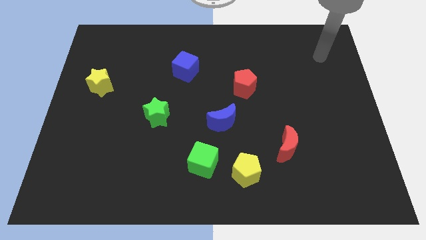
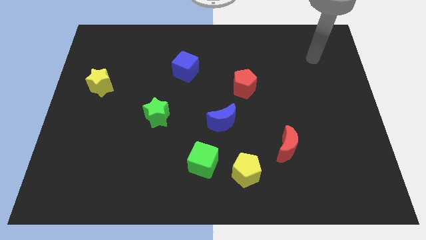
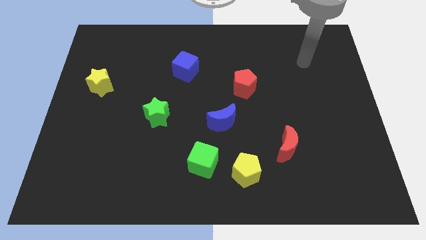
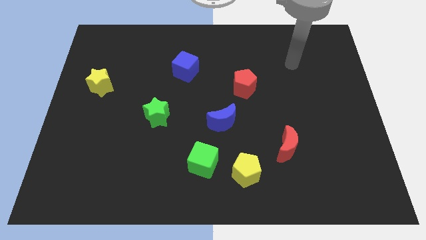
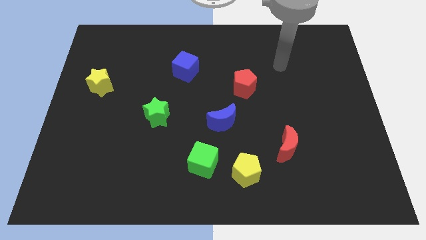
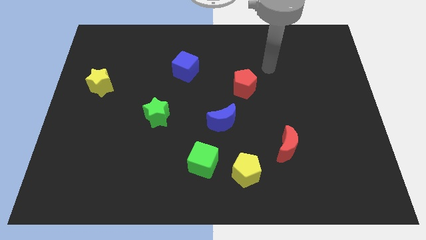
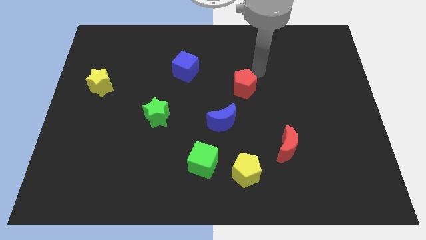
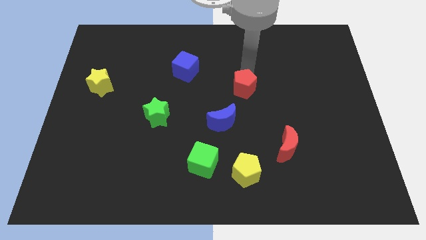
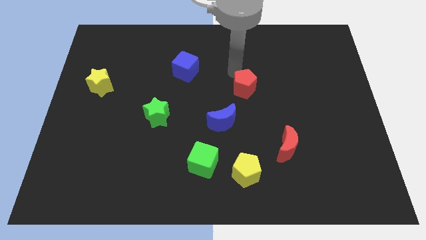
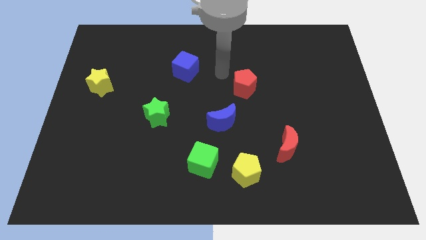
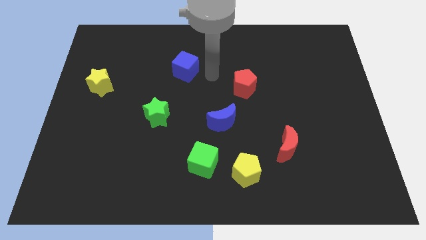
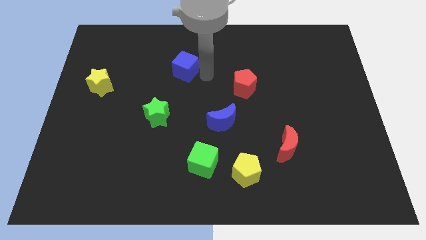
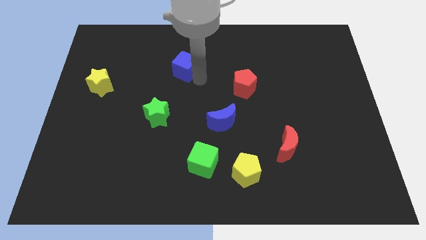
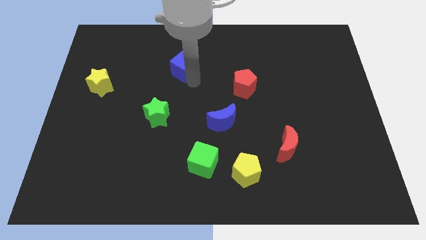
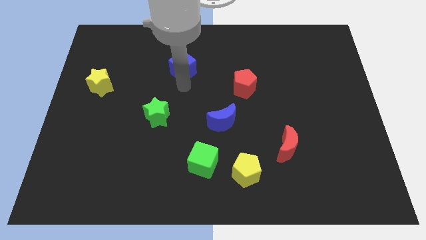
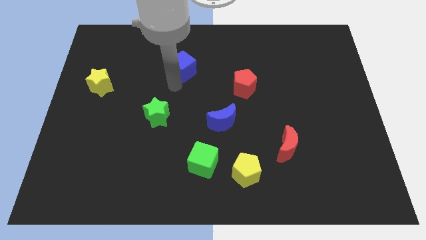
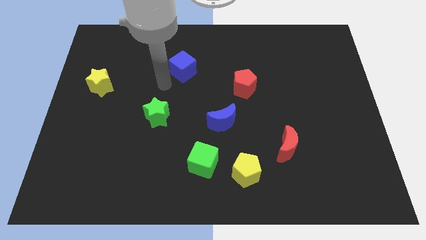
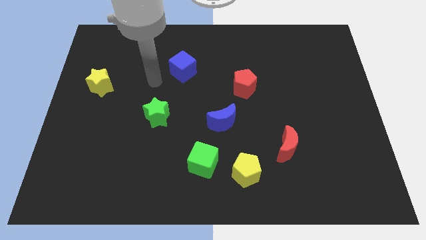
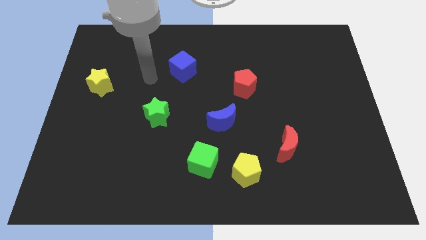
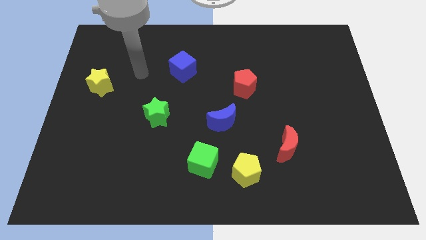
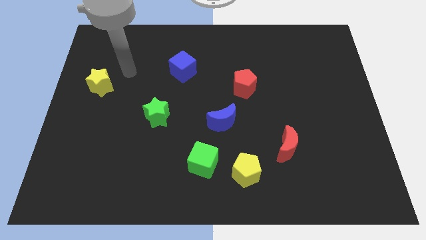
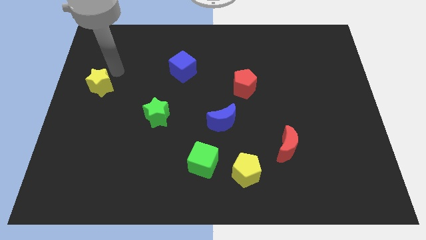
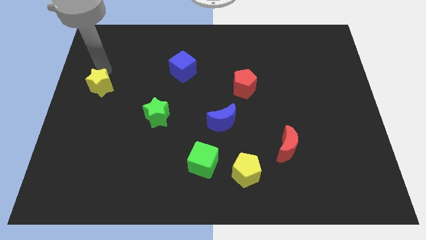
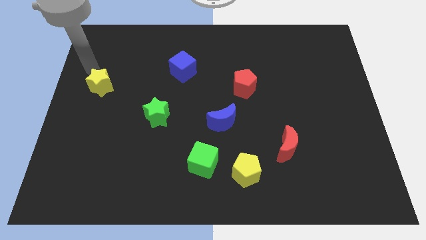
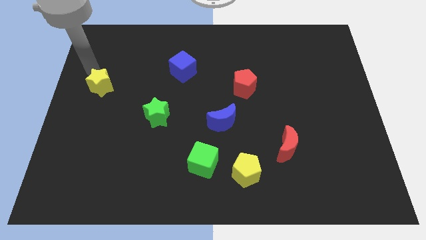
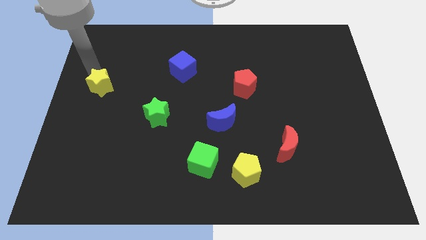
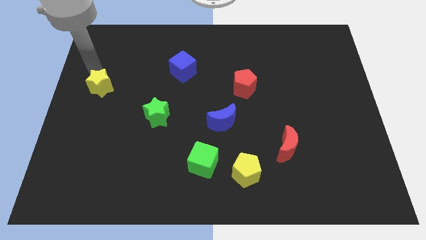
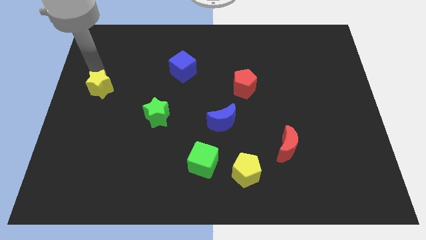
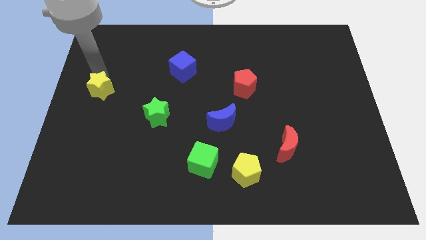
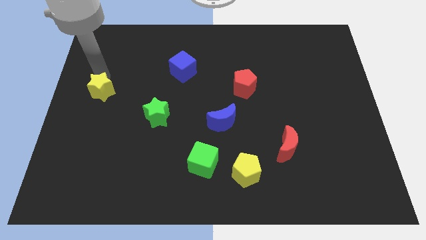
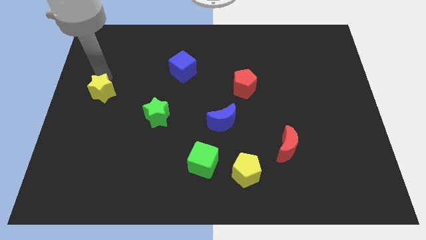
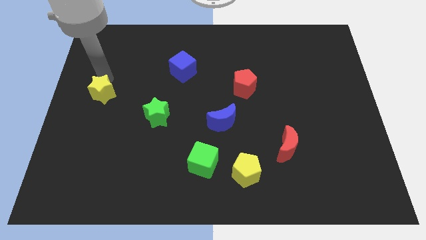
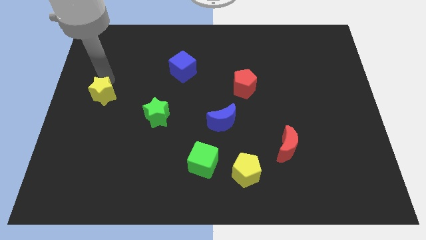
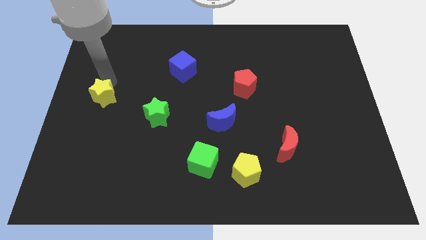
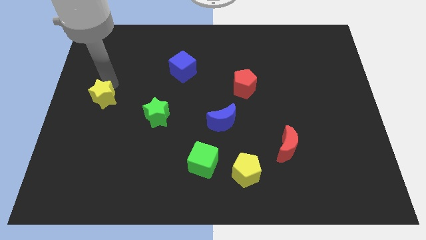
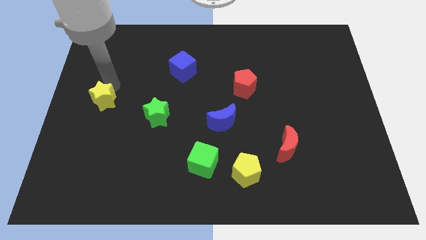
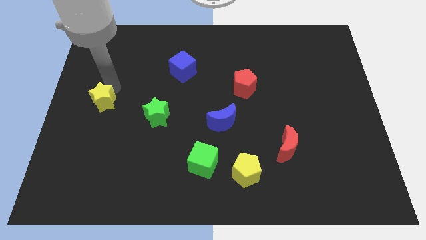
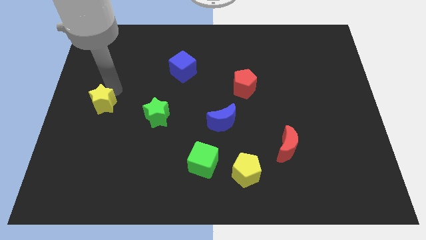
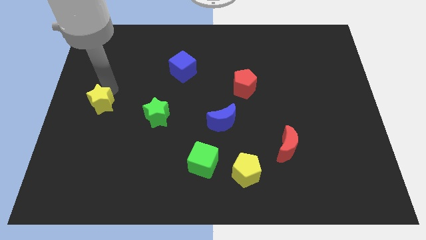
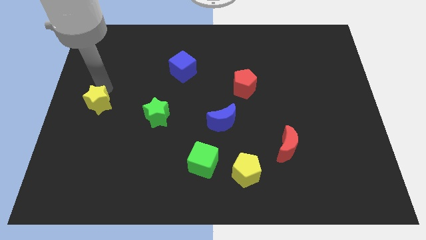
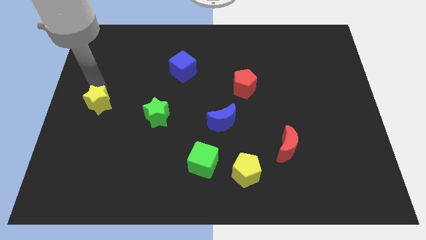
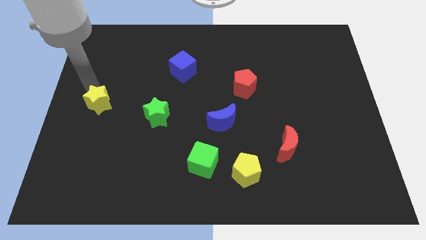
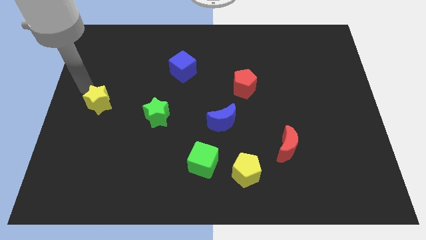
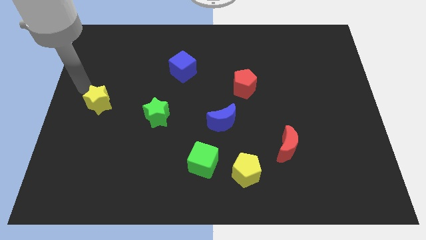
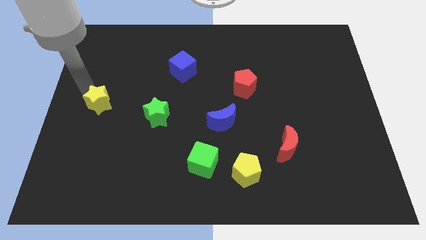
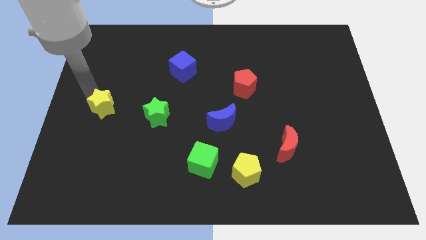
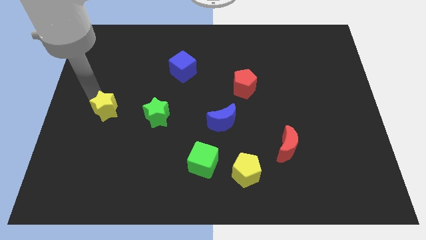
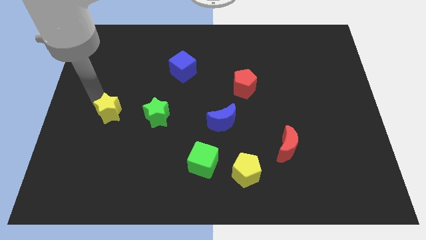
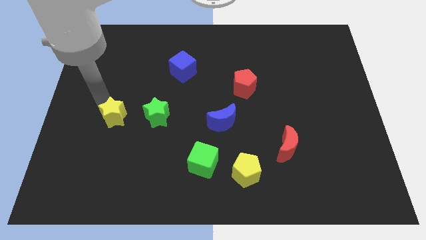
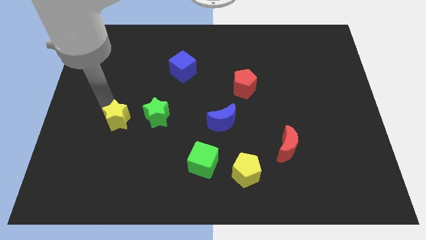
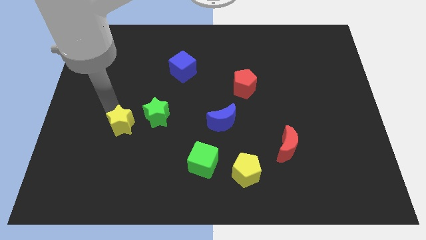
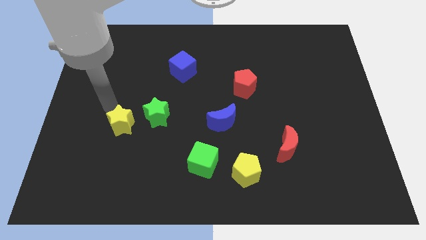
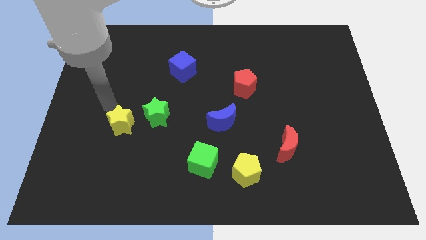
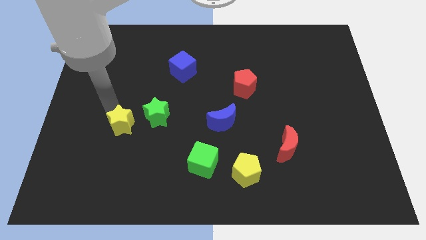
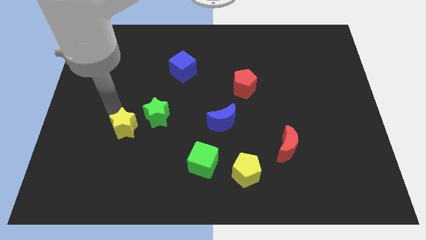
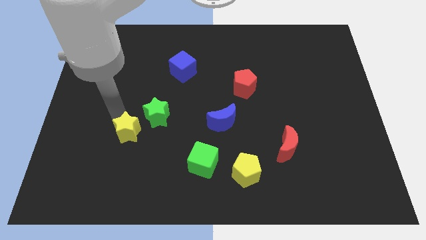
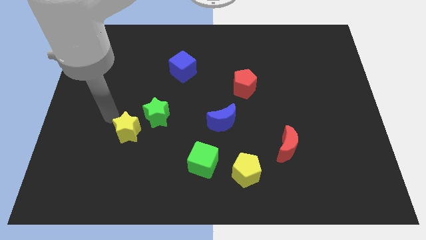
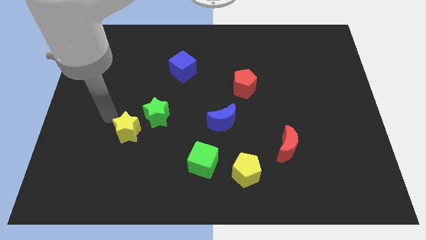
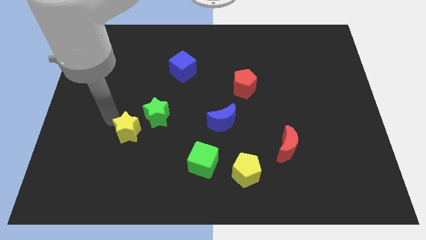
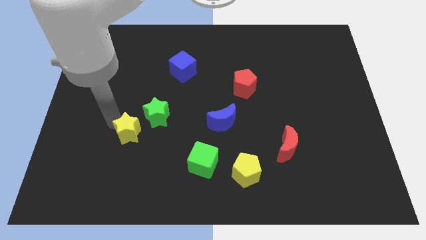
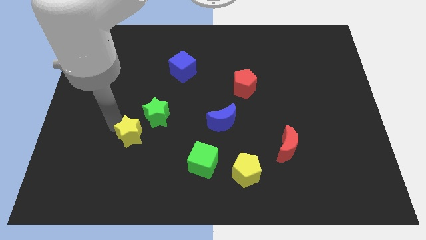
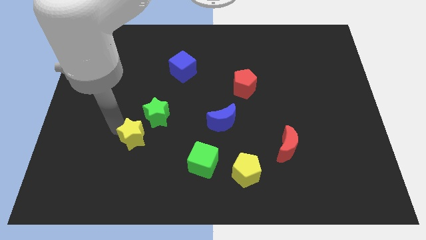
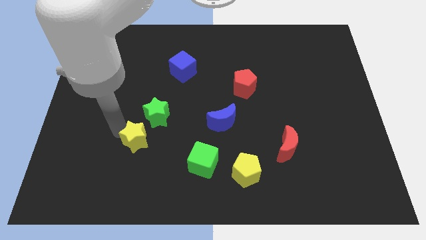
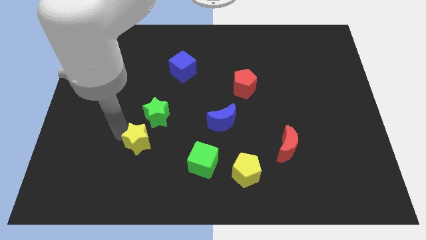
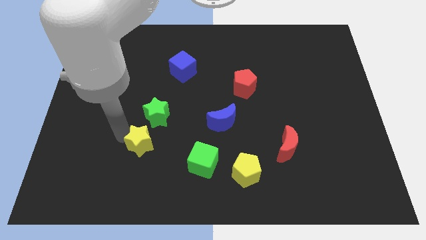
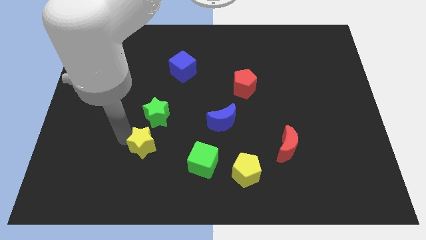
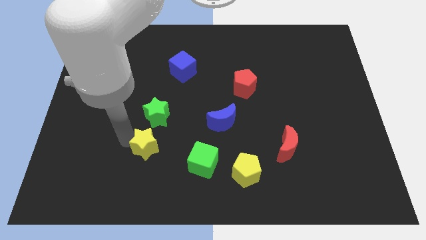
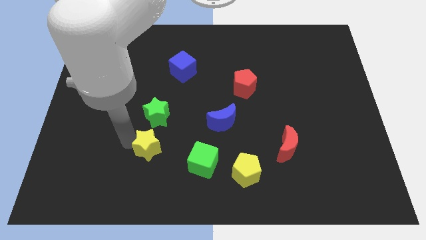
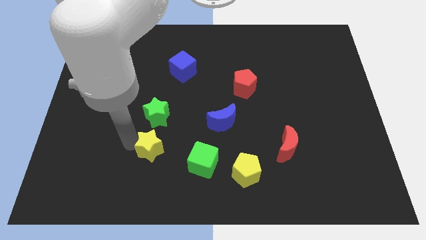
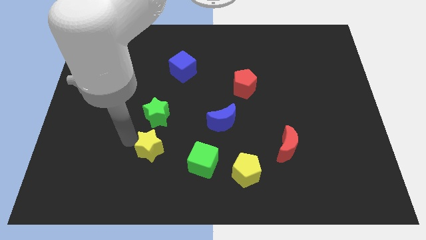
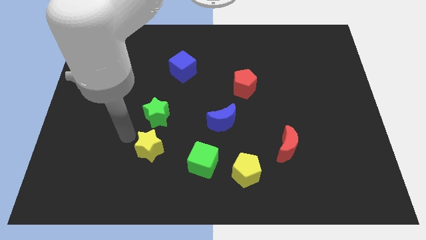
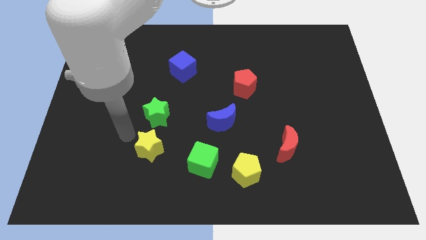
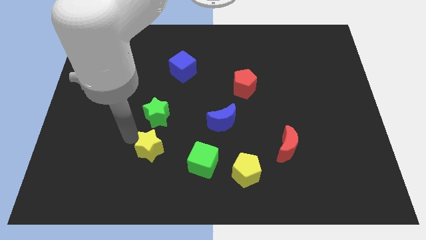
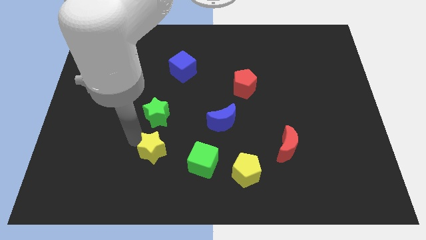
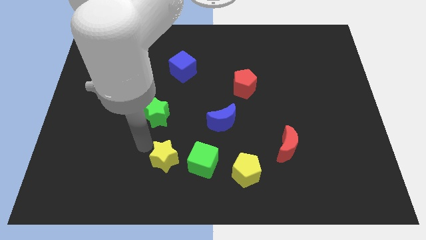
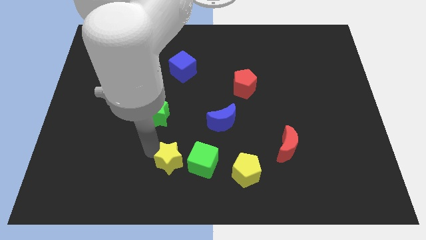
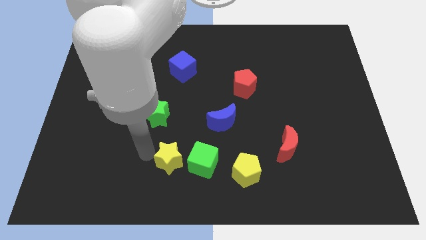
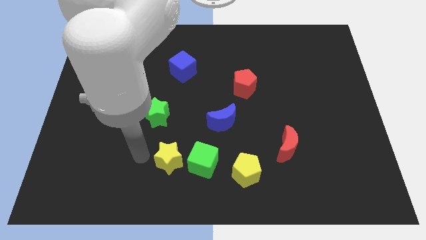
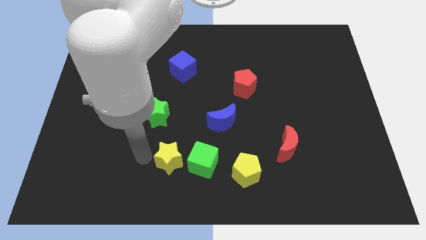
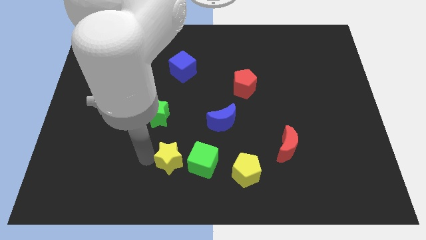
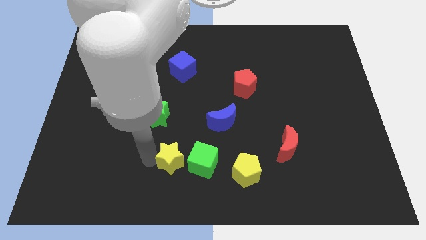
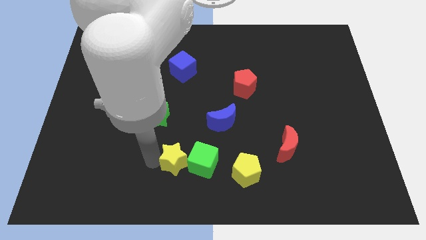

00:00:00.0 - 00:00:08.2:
slide the yellow star next to the green cube
